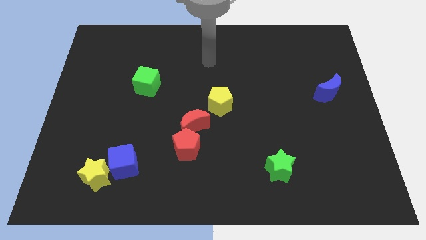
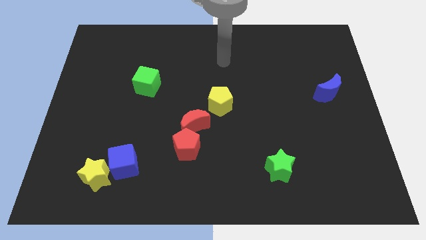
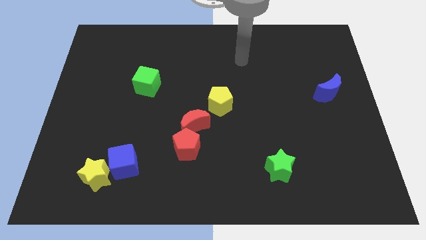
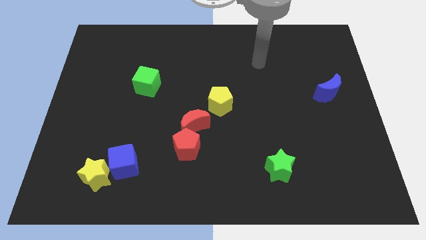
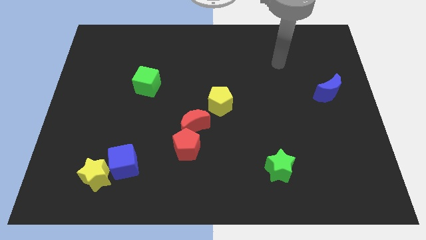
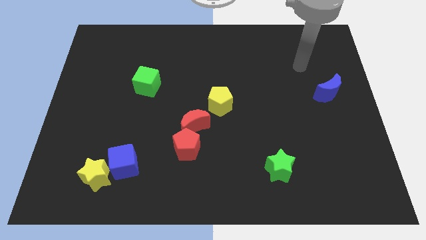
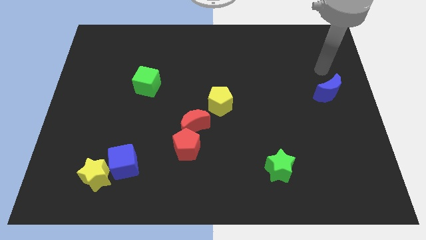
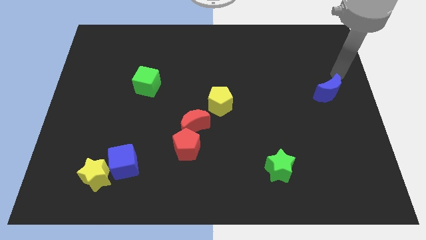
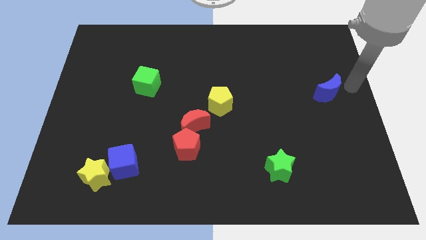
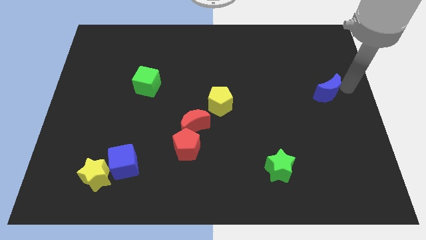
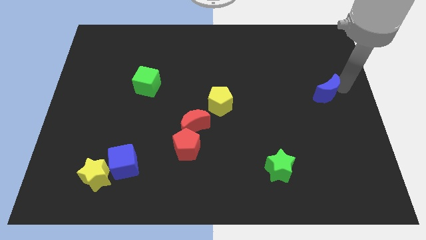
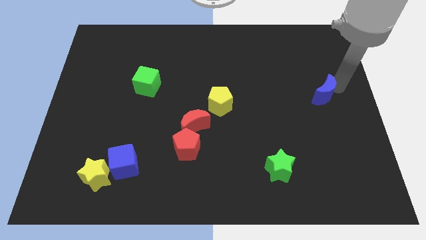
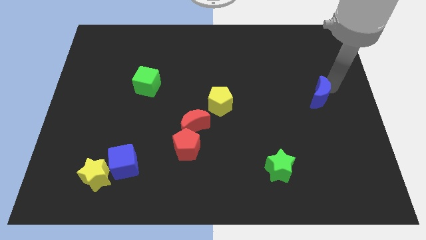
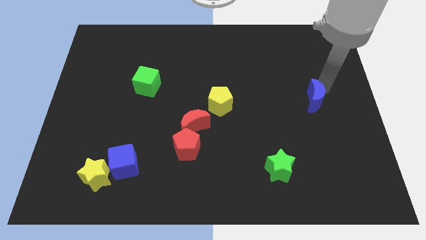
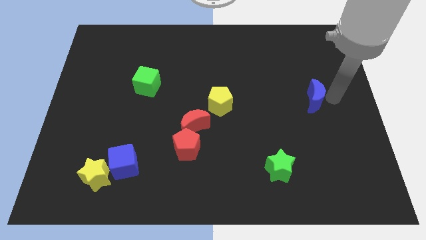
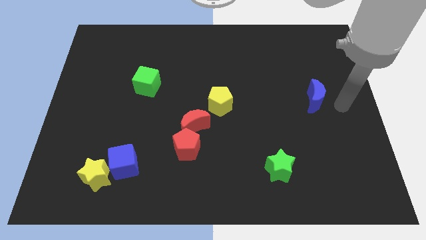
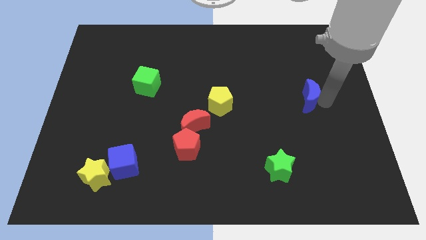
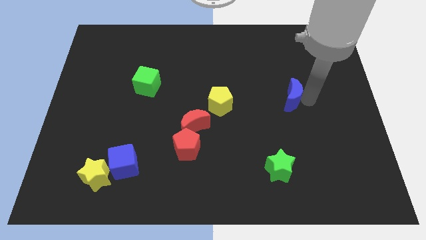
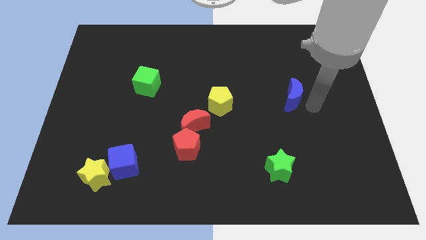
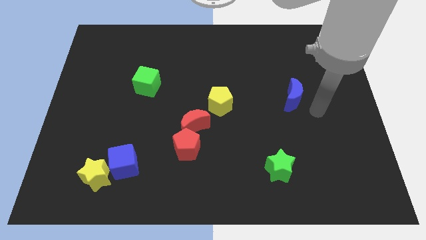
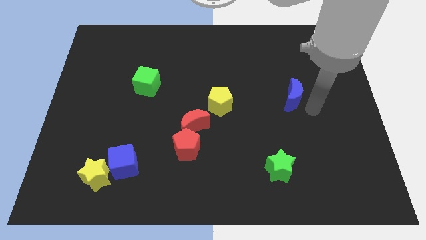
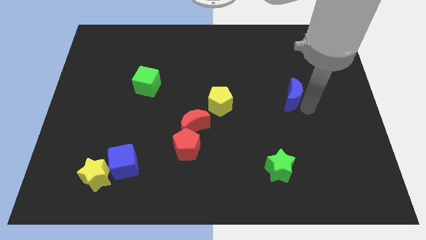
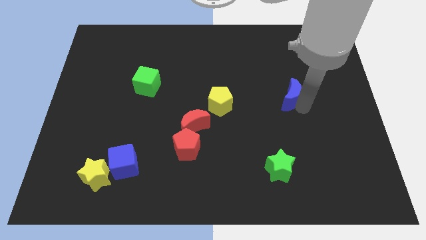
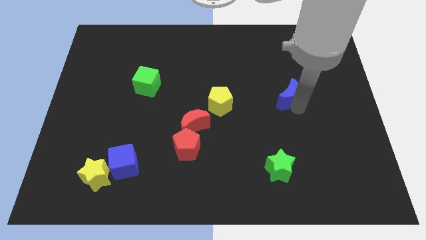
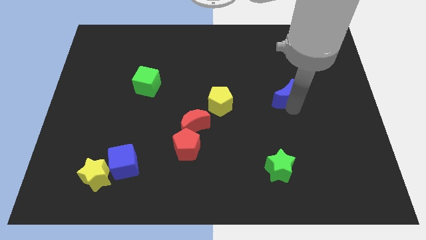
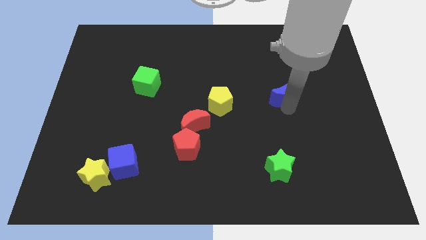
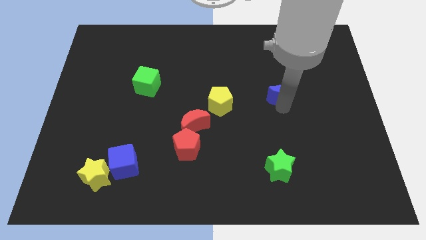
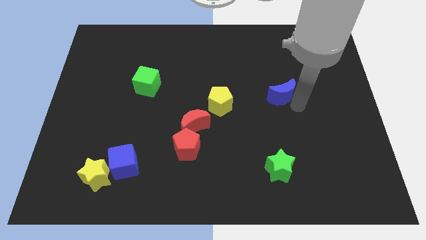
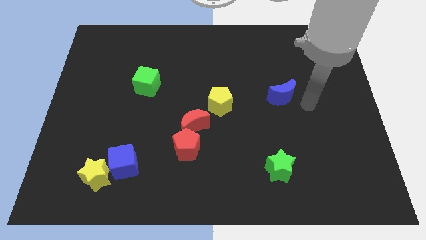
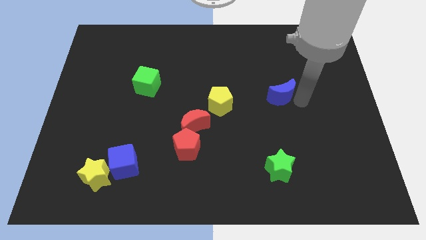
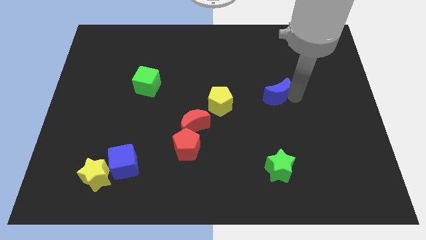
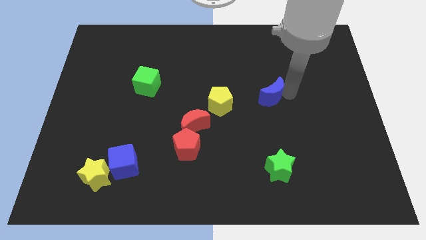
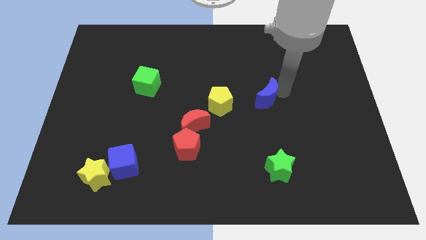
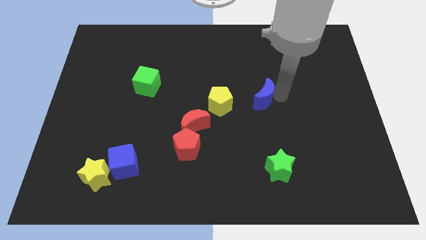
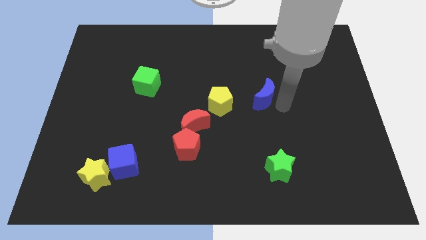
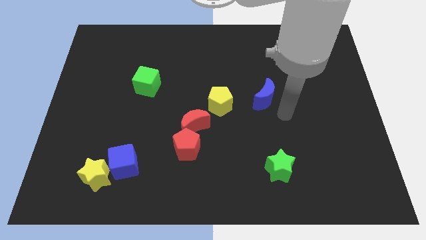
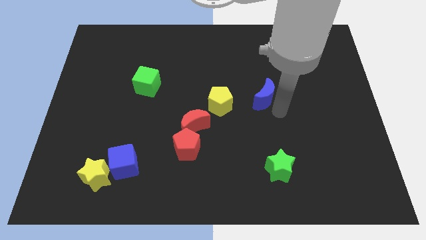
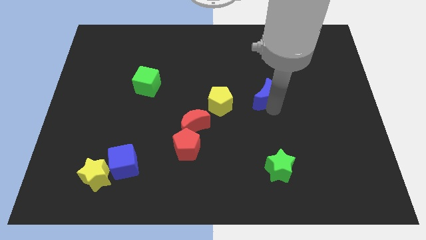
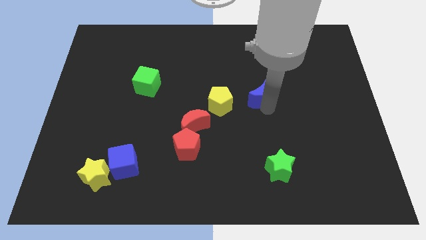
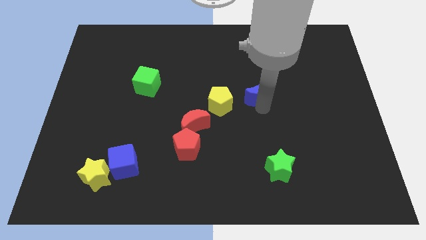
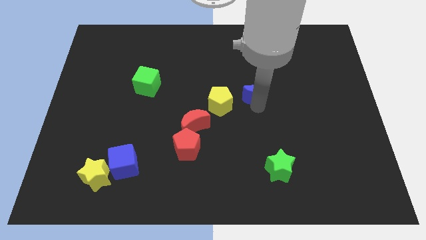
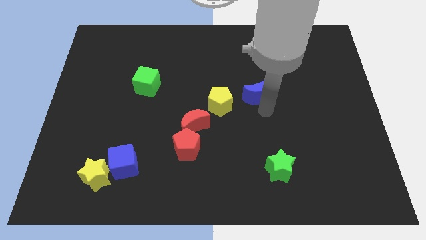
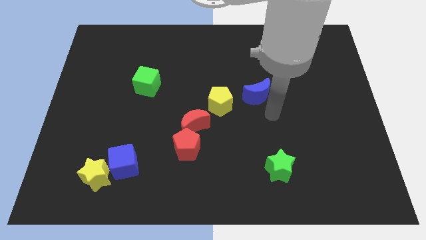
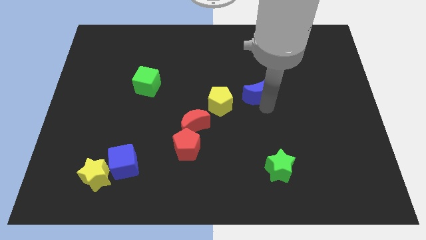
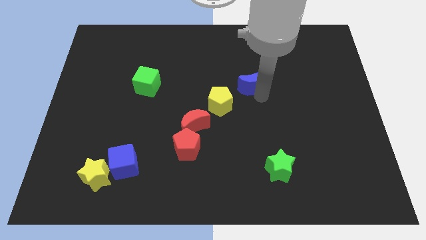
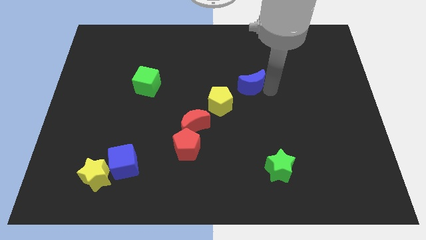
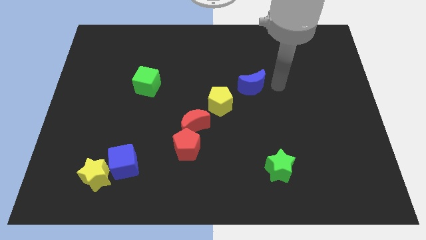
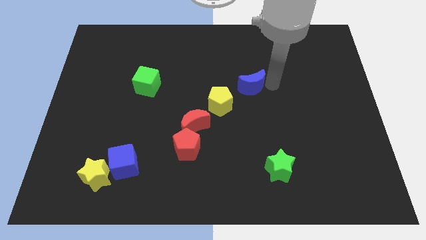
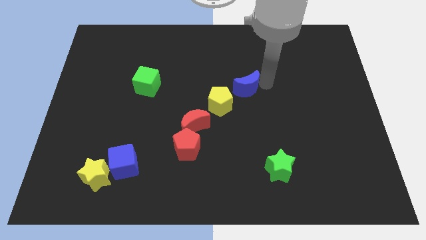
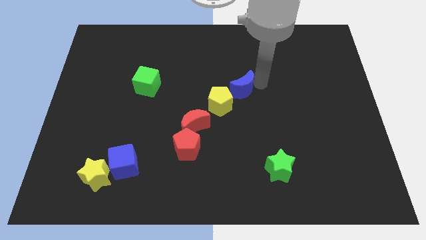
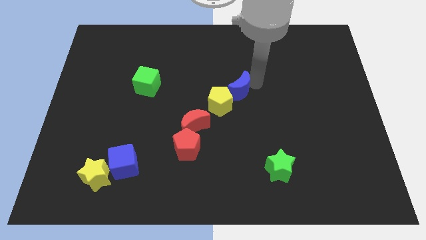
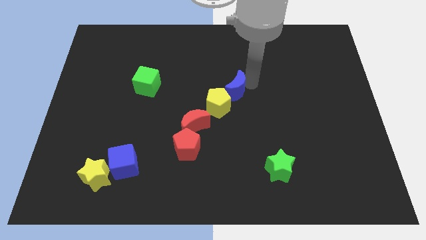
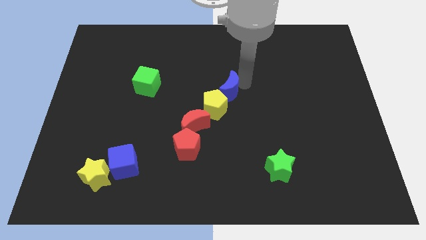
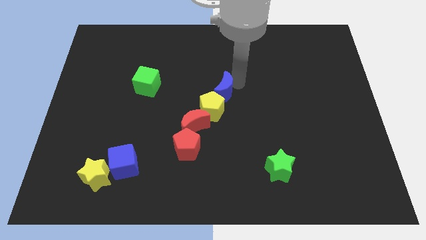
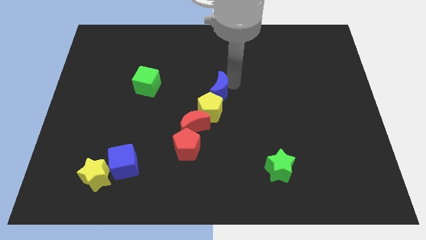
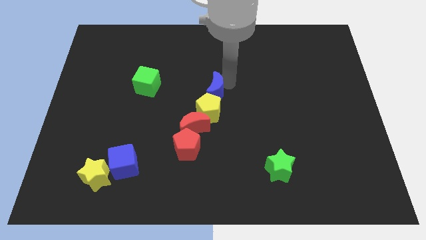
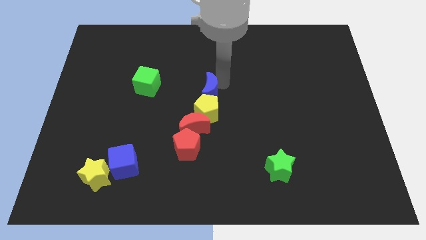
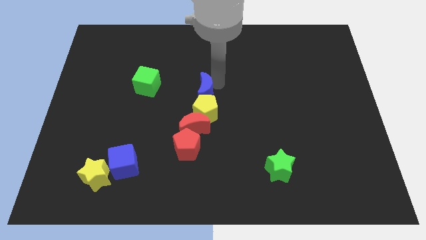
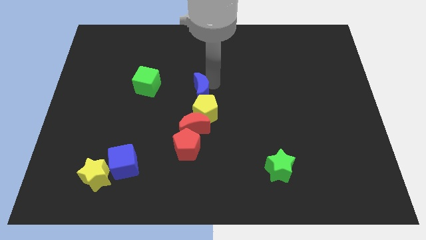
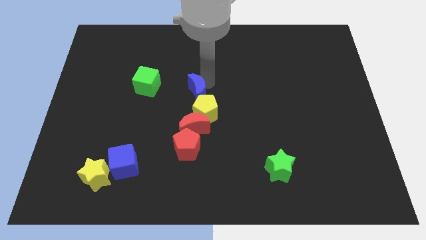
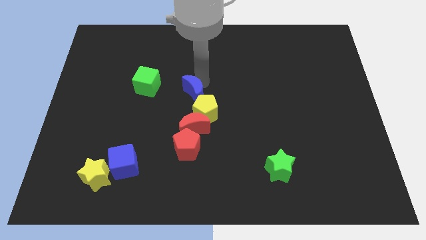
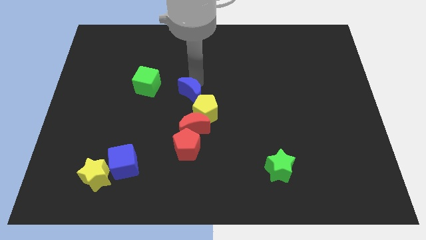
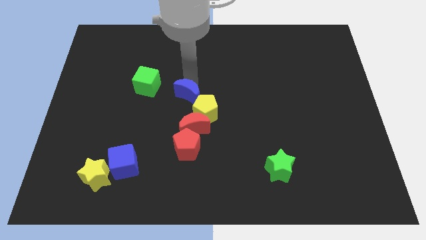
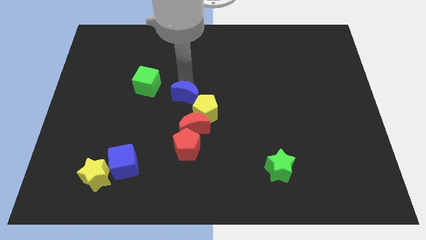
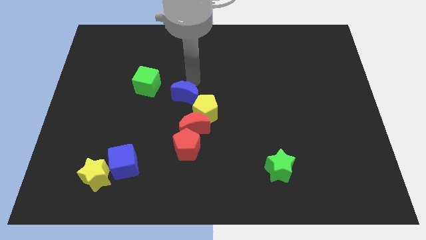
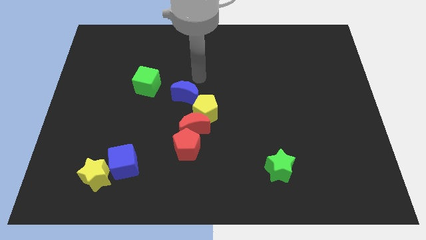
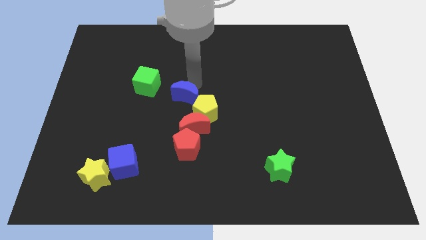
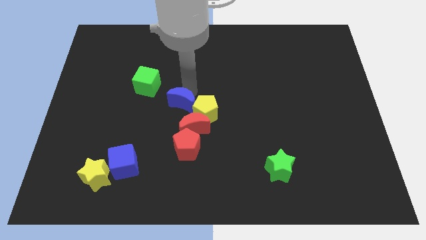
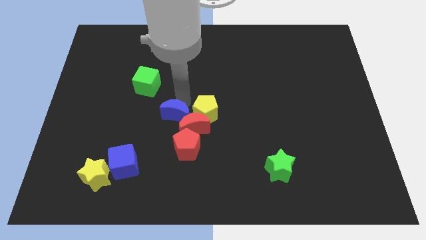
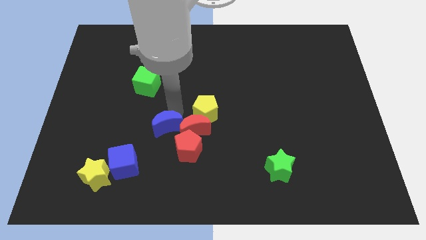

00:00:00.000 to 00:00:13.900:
move the blue moon to the bottom left of the red moon
